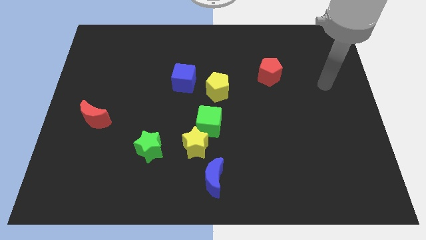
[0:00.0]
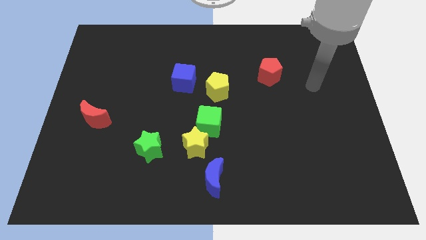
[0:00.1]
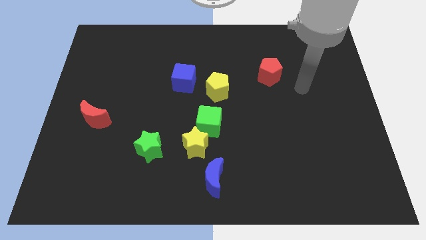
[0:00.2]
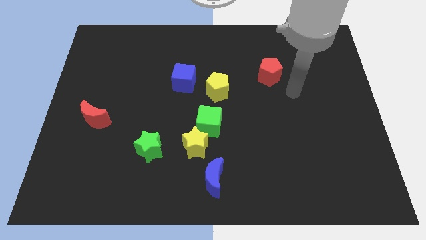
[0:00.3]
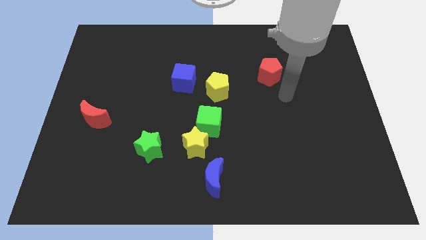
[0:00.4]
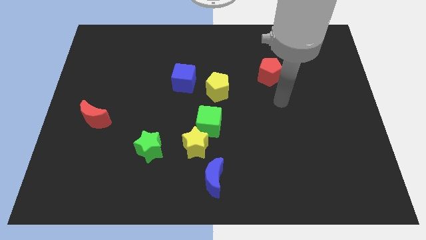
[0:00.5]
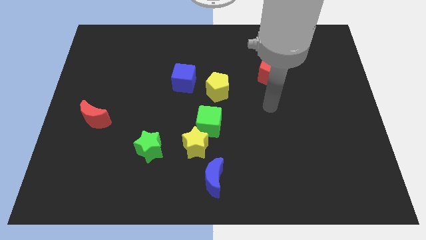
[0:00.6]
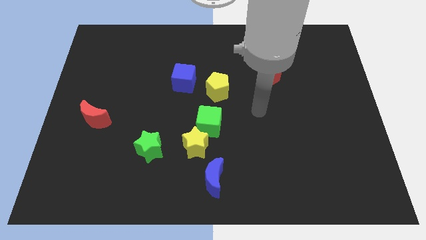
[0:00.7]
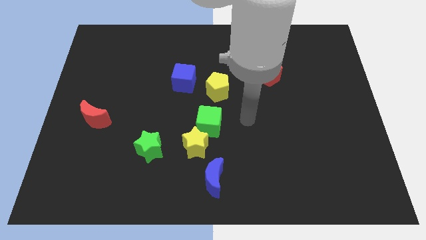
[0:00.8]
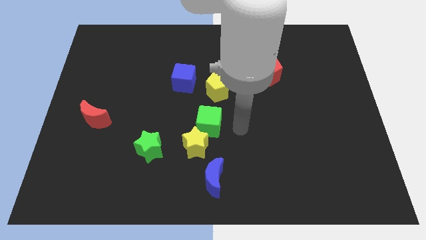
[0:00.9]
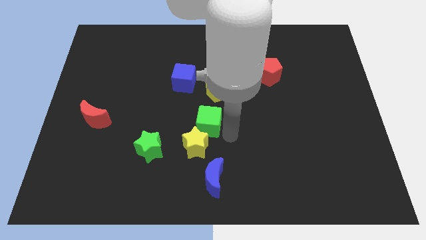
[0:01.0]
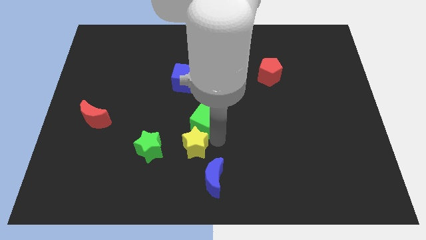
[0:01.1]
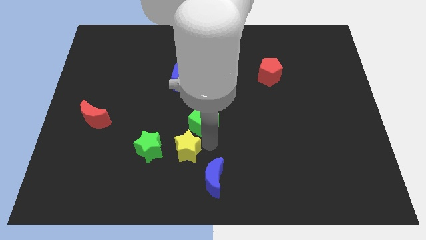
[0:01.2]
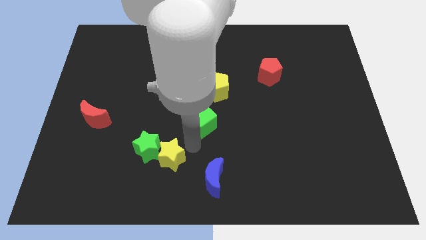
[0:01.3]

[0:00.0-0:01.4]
separate the green cube from the yellow star

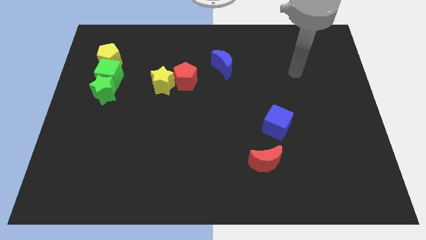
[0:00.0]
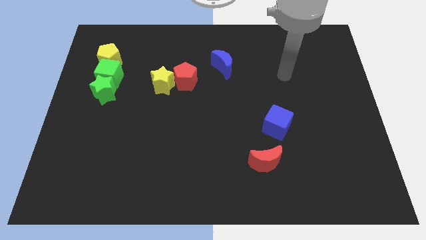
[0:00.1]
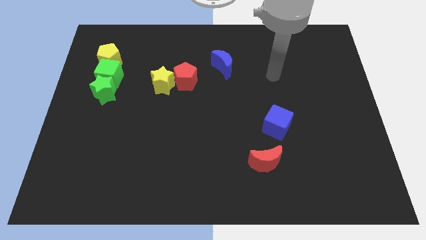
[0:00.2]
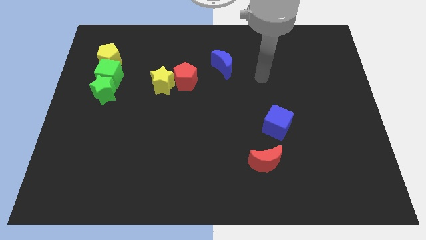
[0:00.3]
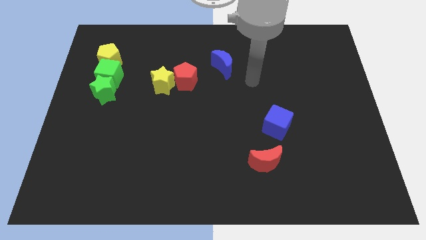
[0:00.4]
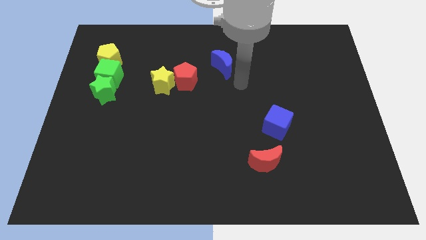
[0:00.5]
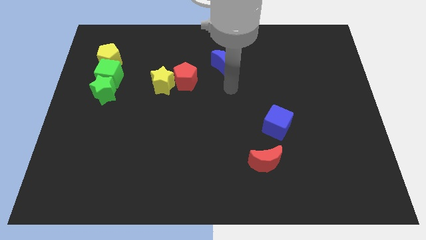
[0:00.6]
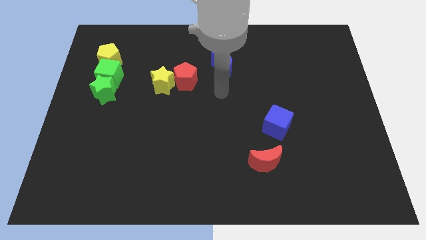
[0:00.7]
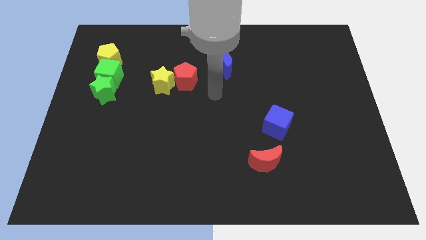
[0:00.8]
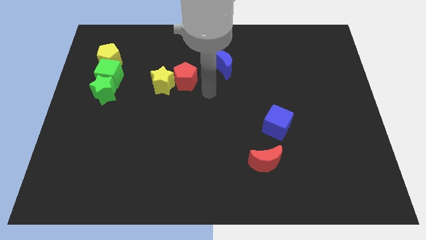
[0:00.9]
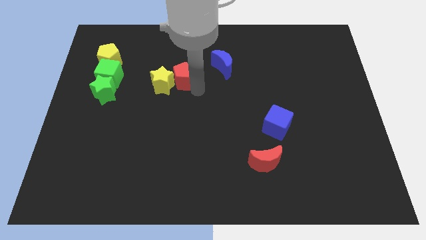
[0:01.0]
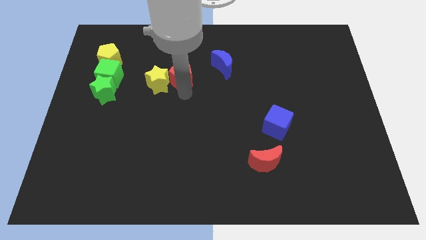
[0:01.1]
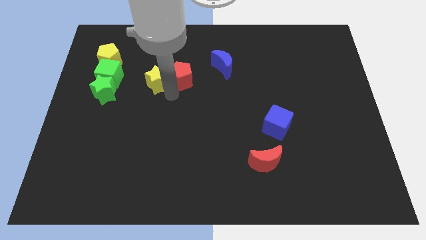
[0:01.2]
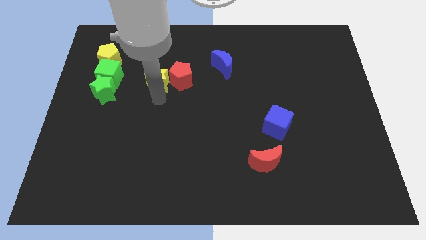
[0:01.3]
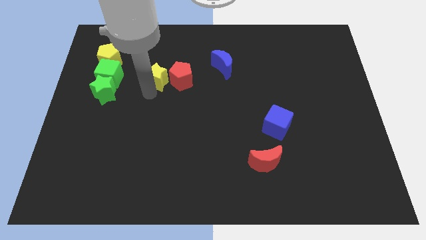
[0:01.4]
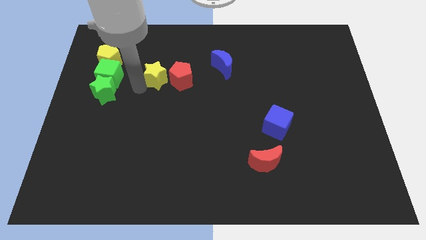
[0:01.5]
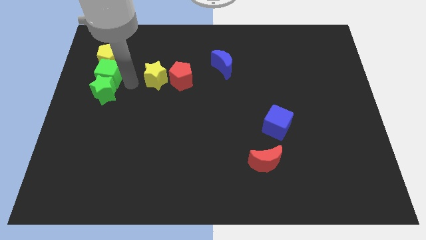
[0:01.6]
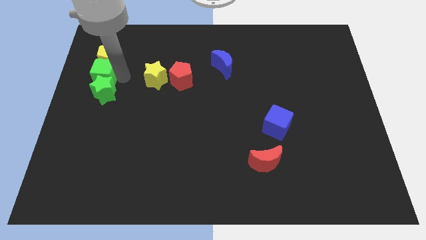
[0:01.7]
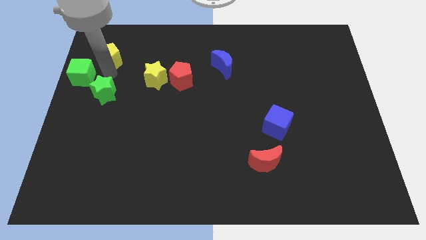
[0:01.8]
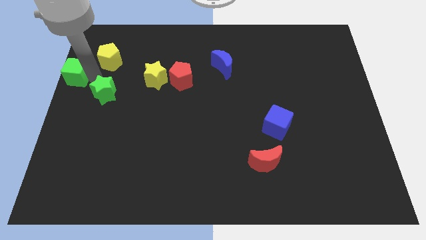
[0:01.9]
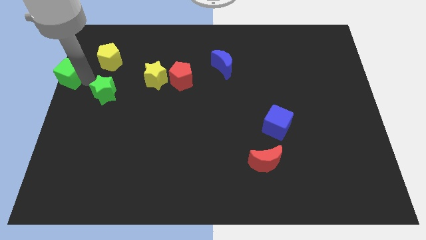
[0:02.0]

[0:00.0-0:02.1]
move the green star away from the green cube

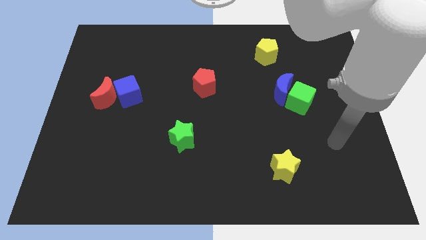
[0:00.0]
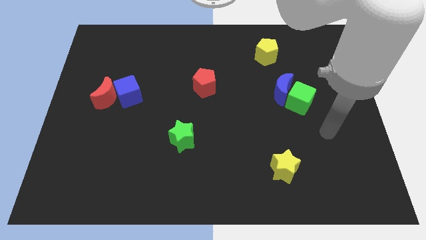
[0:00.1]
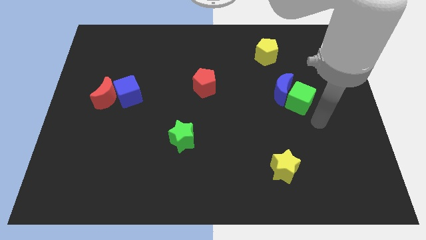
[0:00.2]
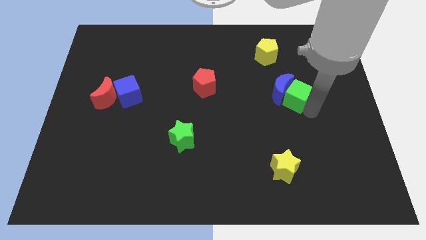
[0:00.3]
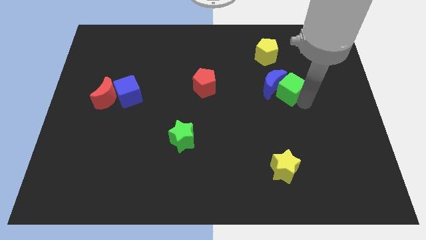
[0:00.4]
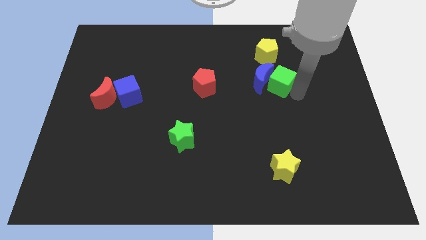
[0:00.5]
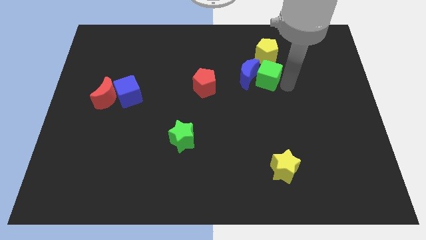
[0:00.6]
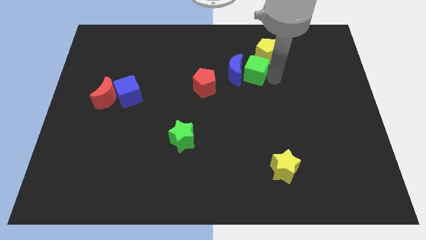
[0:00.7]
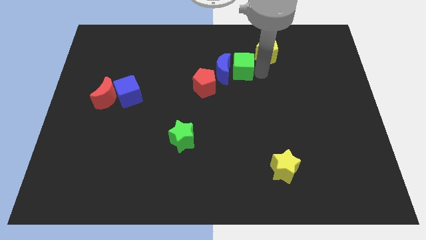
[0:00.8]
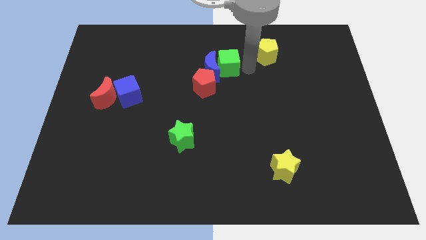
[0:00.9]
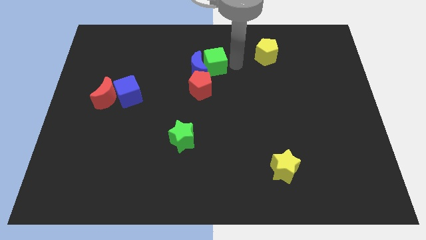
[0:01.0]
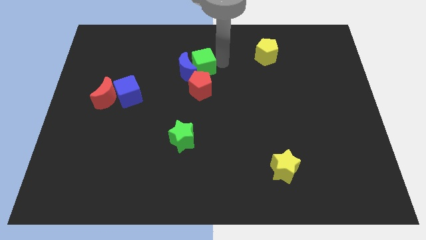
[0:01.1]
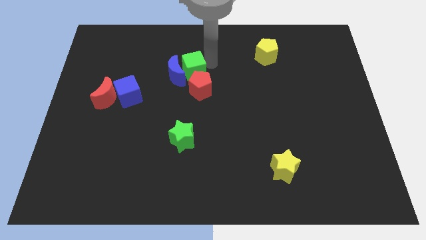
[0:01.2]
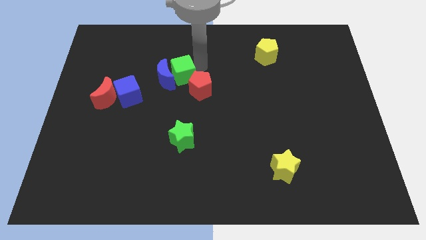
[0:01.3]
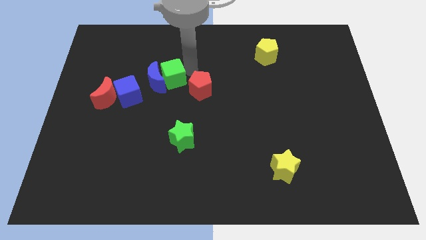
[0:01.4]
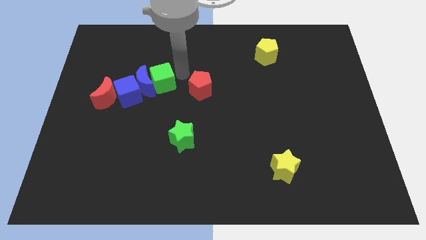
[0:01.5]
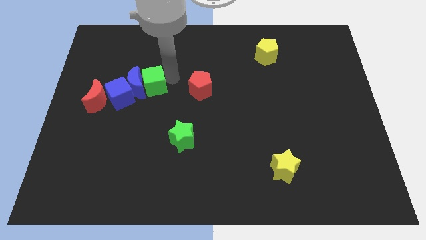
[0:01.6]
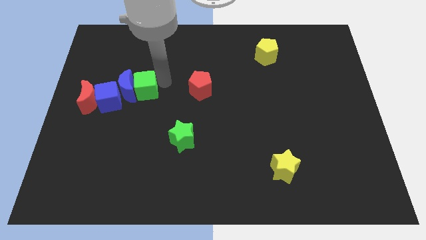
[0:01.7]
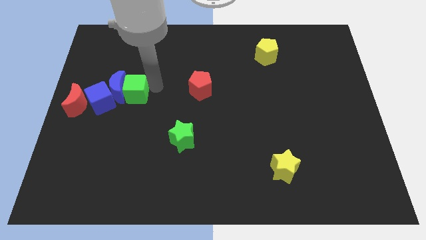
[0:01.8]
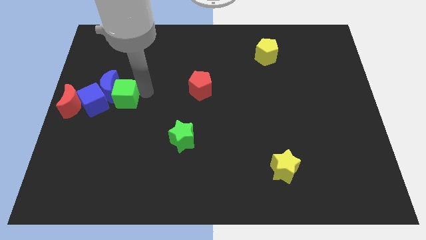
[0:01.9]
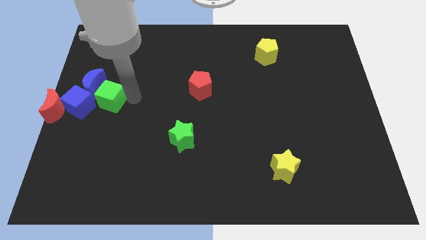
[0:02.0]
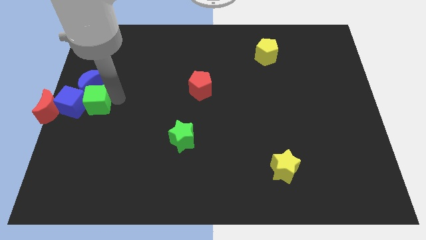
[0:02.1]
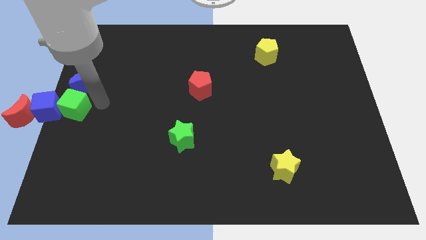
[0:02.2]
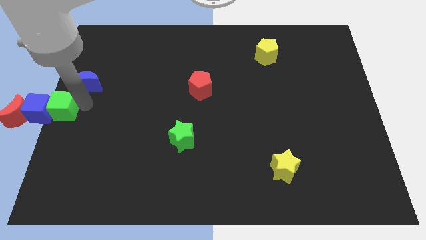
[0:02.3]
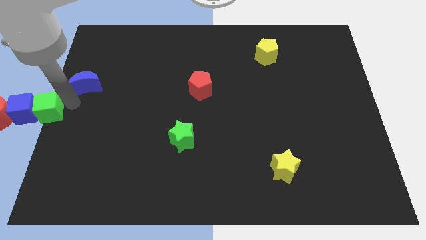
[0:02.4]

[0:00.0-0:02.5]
pull the blue moon apart from the green cube

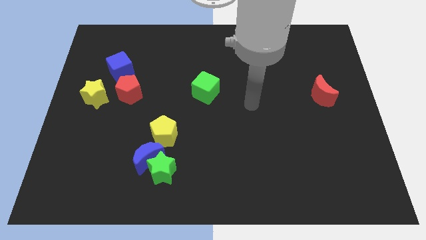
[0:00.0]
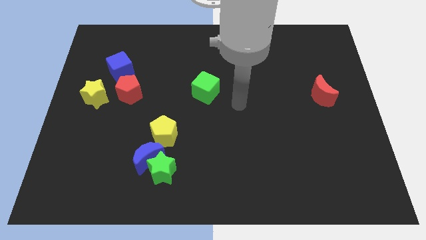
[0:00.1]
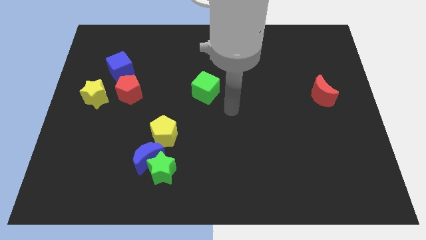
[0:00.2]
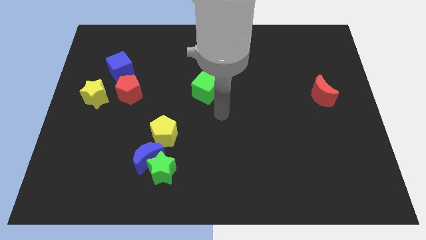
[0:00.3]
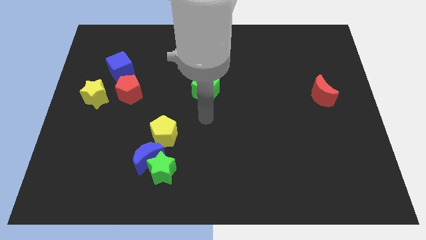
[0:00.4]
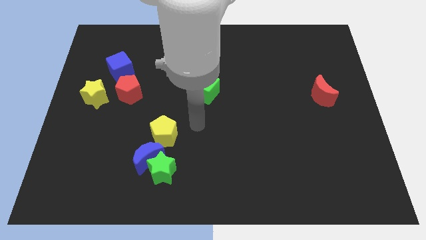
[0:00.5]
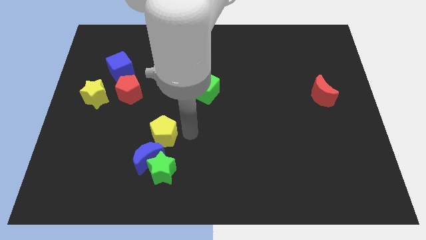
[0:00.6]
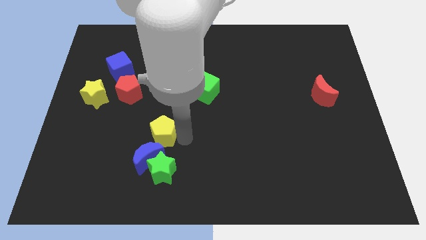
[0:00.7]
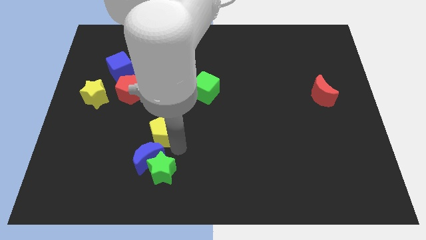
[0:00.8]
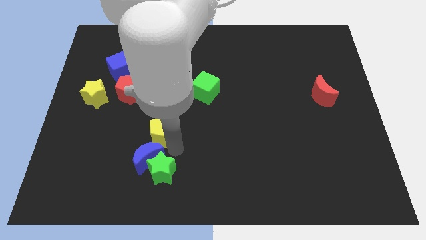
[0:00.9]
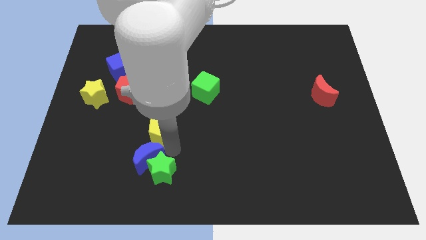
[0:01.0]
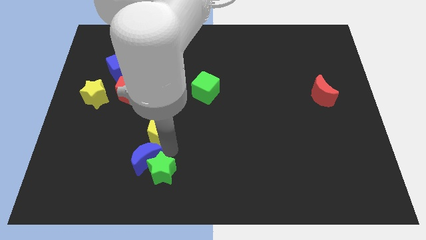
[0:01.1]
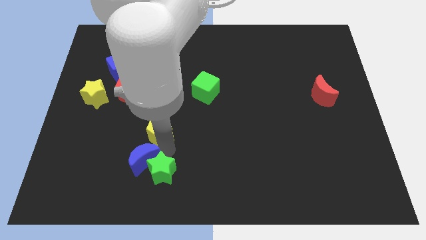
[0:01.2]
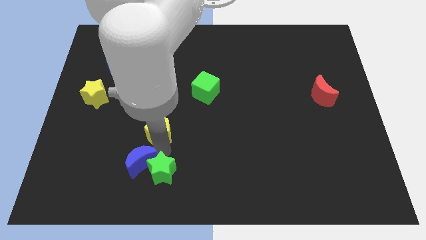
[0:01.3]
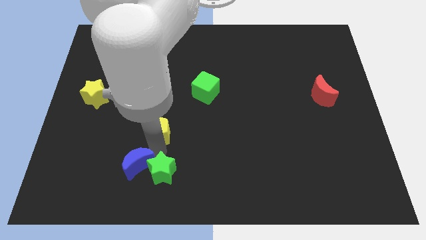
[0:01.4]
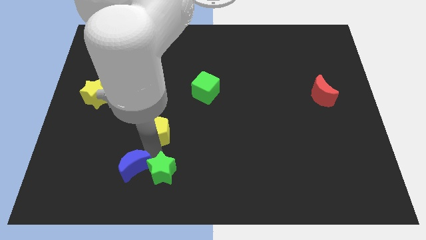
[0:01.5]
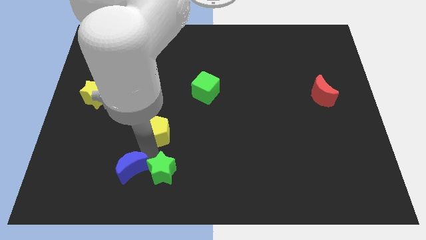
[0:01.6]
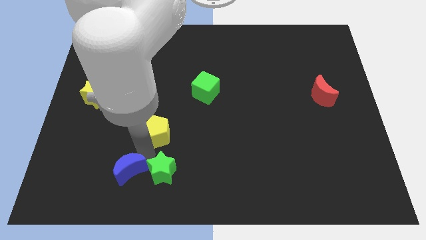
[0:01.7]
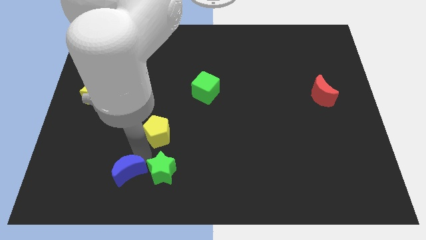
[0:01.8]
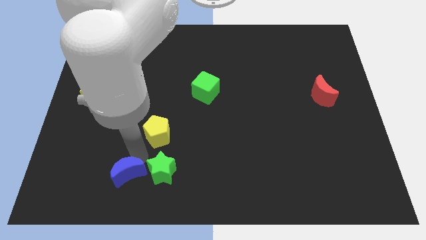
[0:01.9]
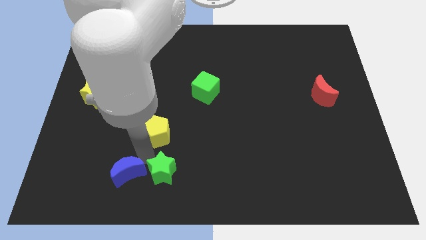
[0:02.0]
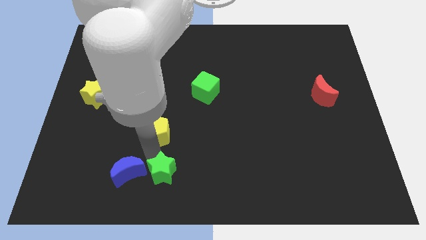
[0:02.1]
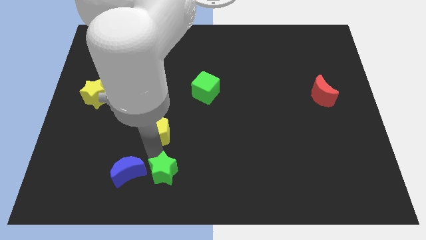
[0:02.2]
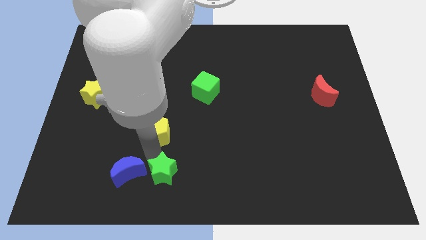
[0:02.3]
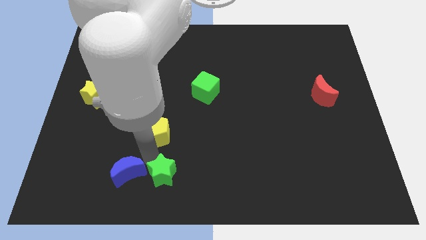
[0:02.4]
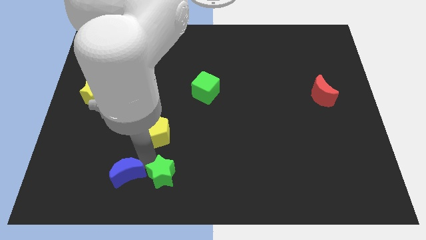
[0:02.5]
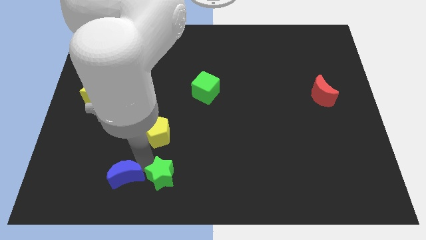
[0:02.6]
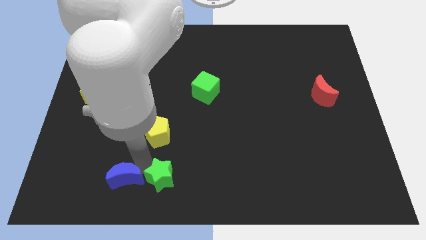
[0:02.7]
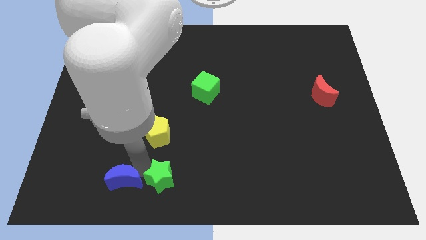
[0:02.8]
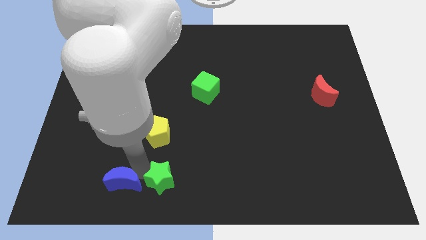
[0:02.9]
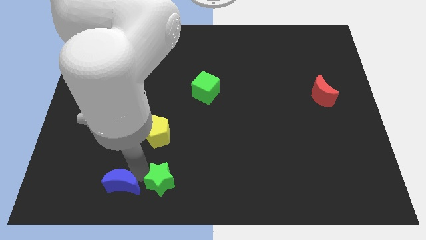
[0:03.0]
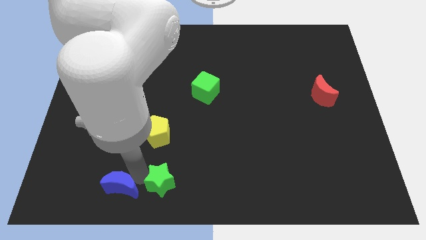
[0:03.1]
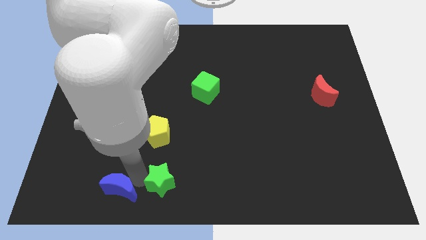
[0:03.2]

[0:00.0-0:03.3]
pull the blue moon apart from the green star and yellow pentagon
